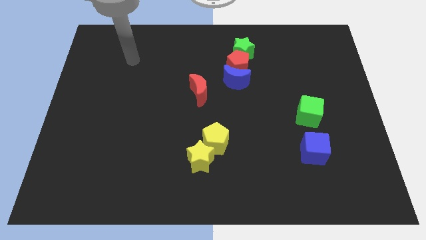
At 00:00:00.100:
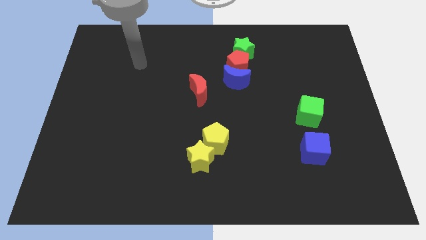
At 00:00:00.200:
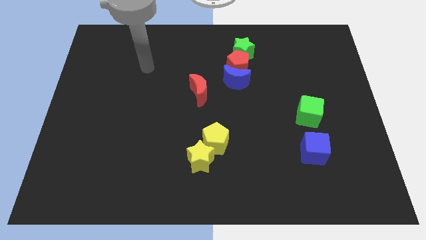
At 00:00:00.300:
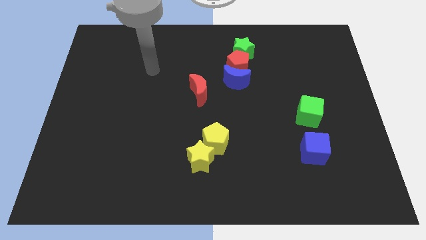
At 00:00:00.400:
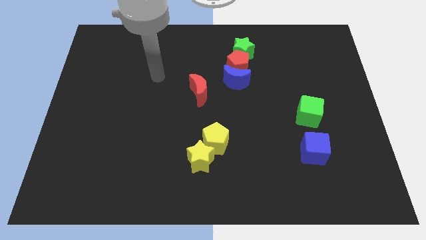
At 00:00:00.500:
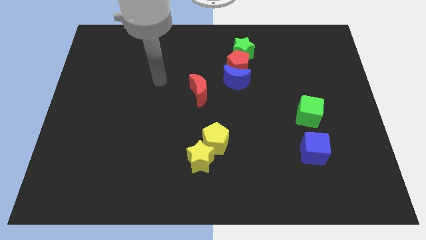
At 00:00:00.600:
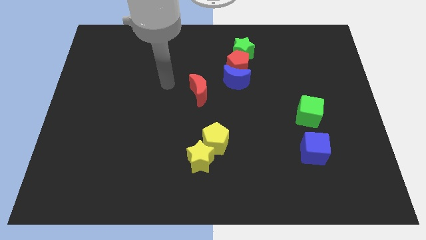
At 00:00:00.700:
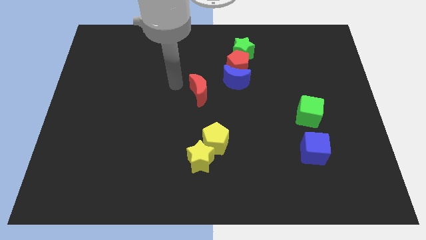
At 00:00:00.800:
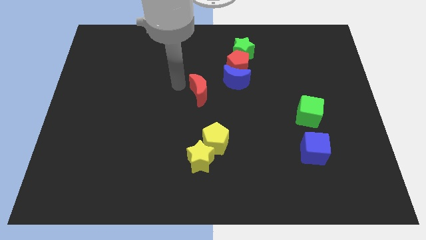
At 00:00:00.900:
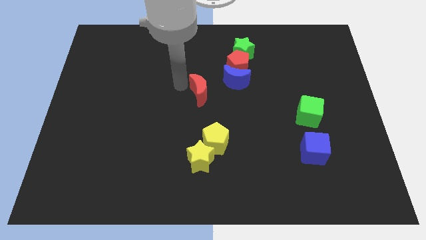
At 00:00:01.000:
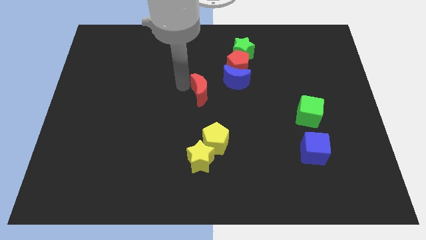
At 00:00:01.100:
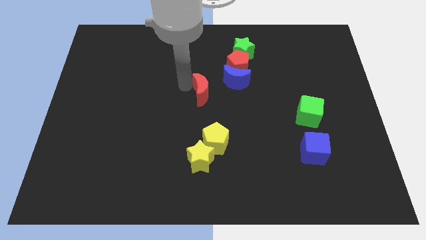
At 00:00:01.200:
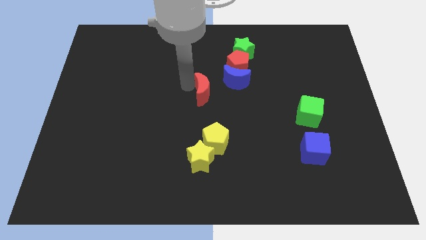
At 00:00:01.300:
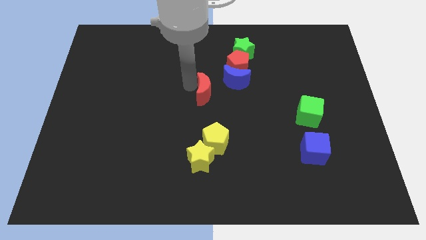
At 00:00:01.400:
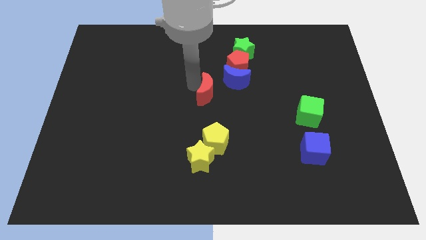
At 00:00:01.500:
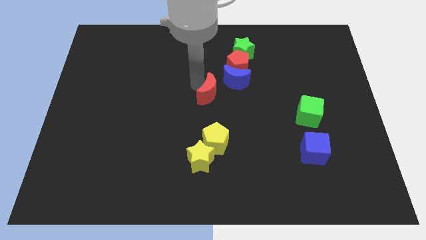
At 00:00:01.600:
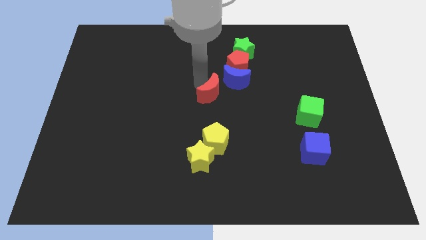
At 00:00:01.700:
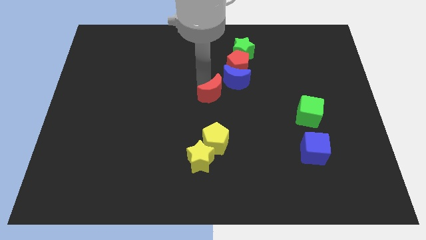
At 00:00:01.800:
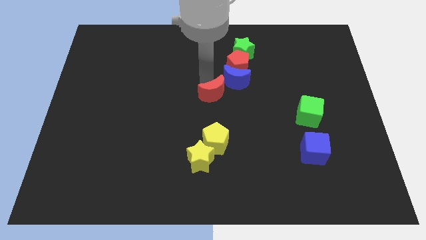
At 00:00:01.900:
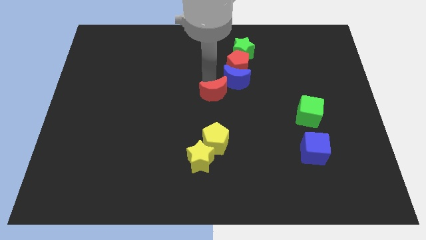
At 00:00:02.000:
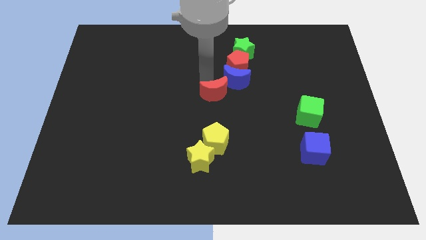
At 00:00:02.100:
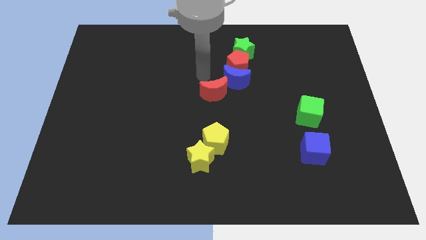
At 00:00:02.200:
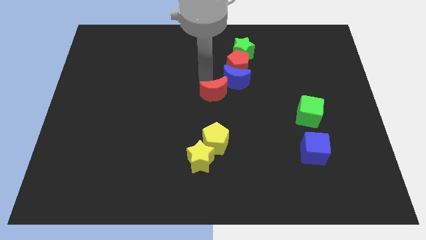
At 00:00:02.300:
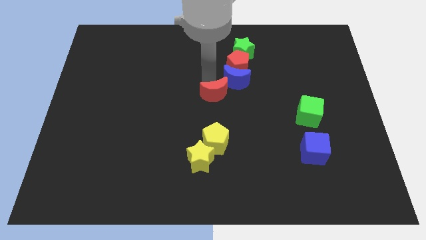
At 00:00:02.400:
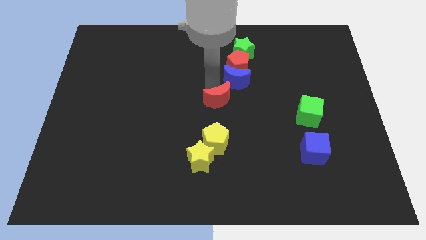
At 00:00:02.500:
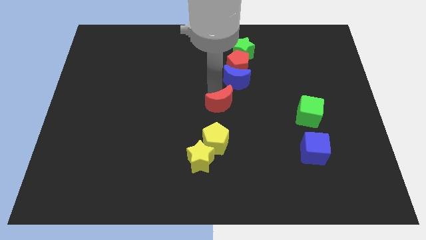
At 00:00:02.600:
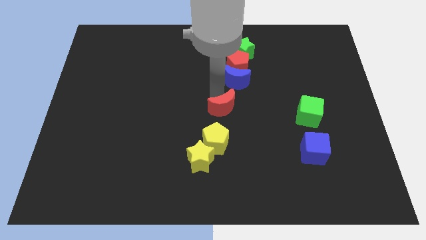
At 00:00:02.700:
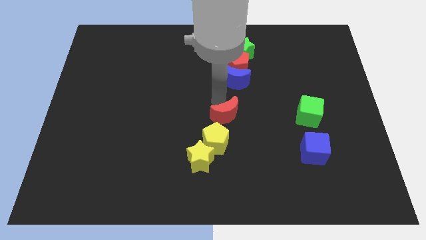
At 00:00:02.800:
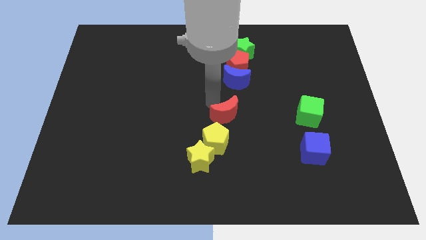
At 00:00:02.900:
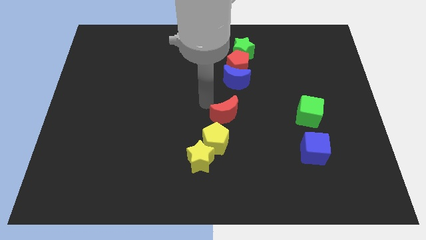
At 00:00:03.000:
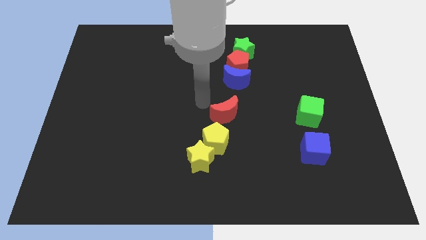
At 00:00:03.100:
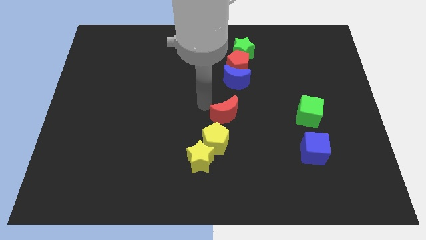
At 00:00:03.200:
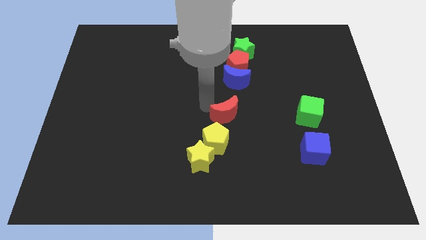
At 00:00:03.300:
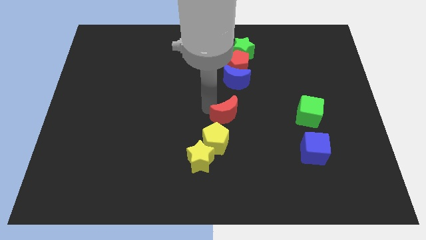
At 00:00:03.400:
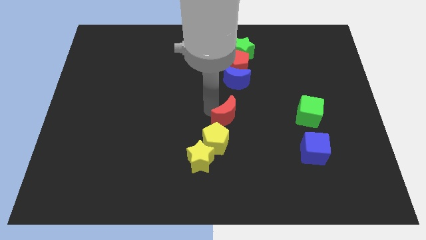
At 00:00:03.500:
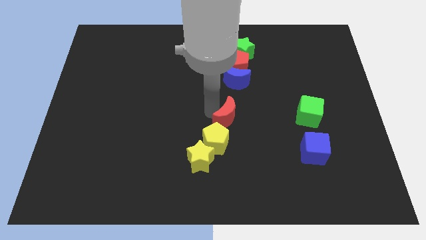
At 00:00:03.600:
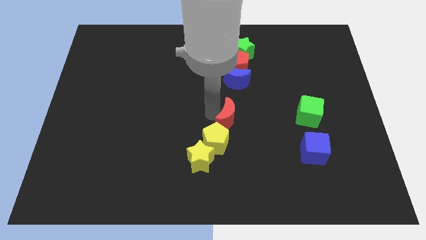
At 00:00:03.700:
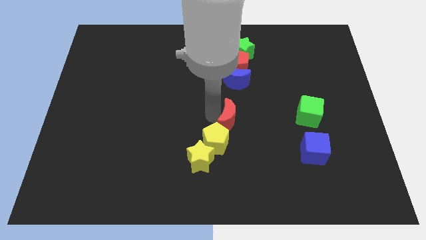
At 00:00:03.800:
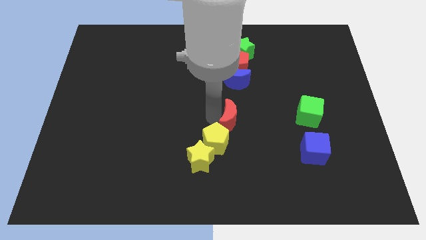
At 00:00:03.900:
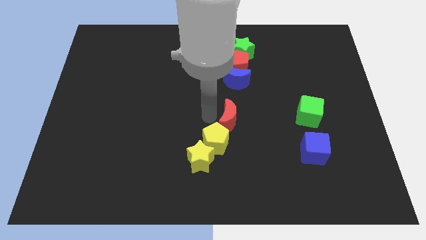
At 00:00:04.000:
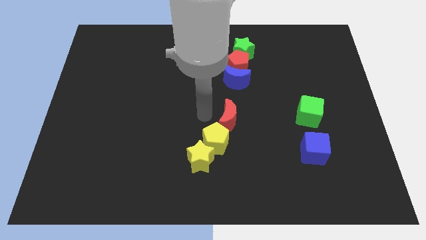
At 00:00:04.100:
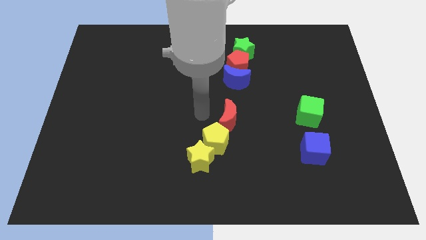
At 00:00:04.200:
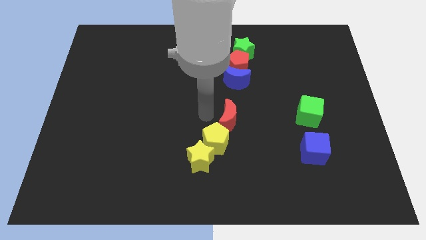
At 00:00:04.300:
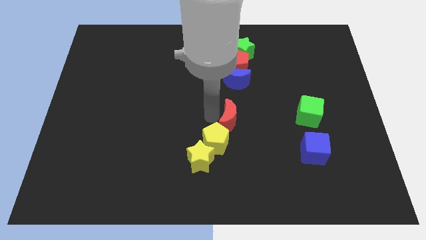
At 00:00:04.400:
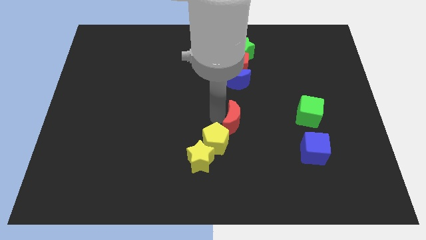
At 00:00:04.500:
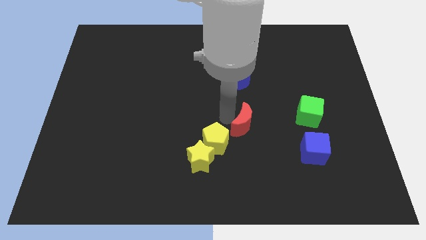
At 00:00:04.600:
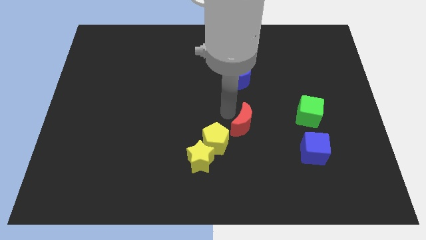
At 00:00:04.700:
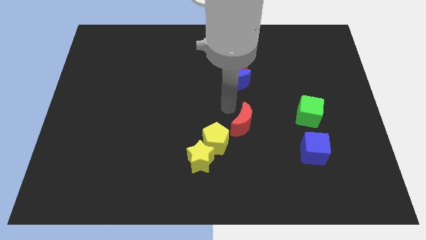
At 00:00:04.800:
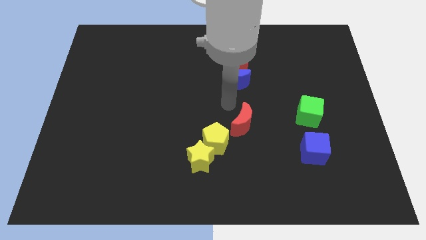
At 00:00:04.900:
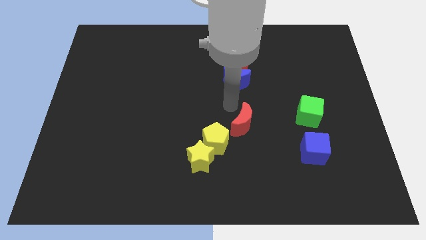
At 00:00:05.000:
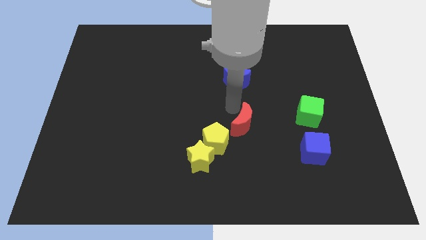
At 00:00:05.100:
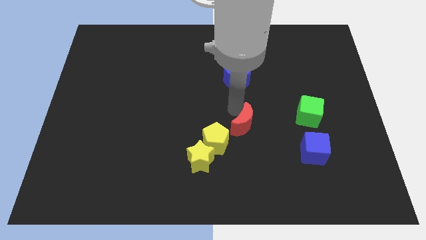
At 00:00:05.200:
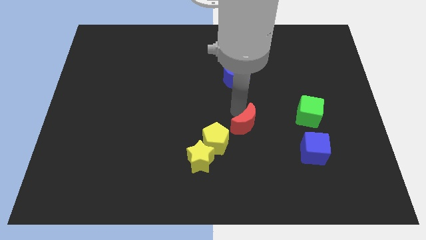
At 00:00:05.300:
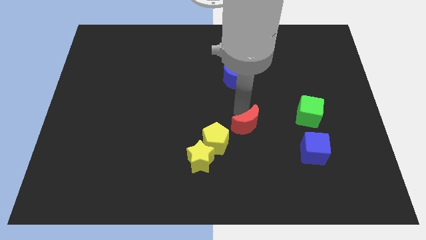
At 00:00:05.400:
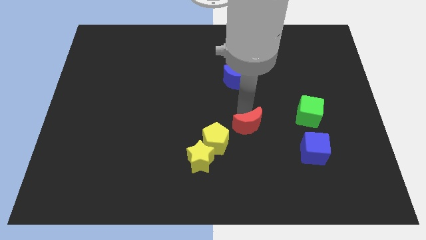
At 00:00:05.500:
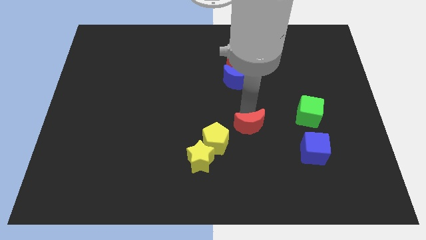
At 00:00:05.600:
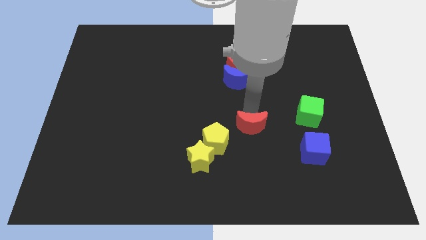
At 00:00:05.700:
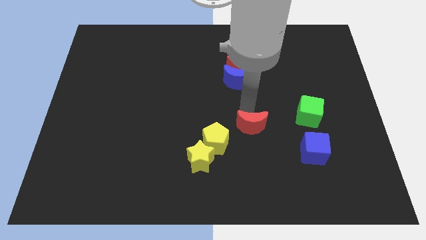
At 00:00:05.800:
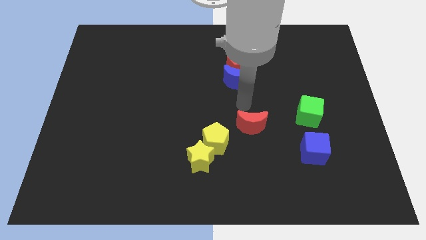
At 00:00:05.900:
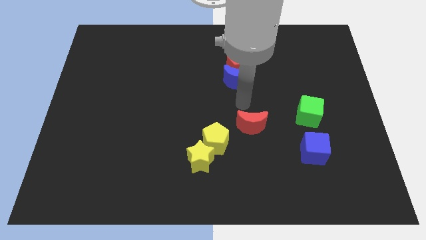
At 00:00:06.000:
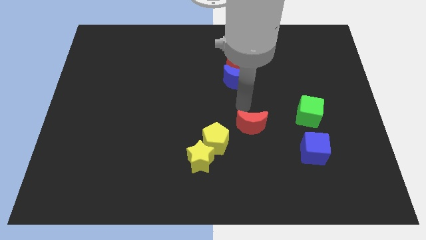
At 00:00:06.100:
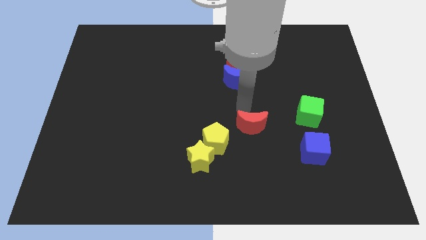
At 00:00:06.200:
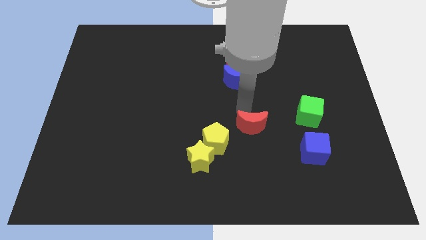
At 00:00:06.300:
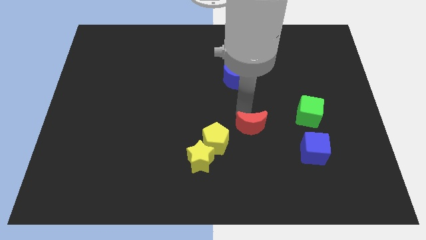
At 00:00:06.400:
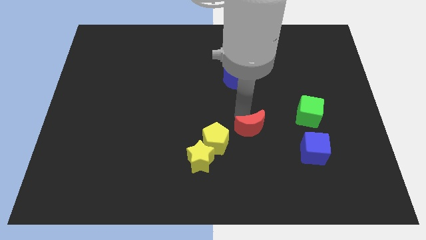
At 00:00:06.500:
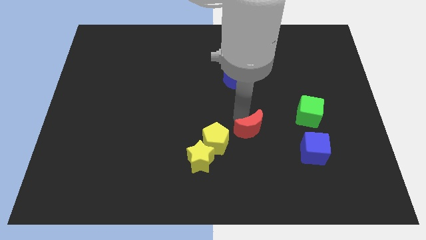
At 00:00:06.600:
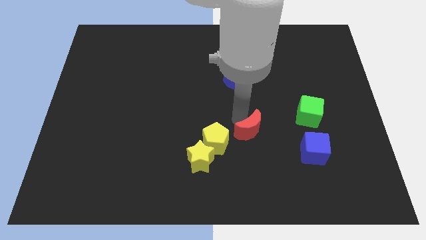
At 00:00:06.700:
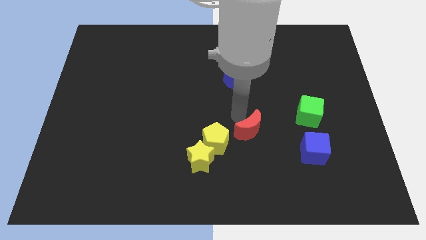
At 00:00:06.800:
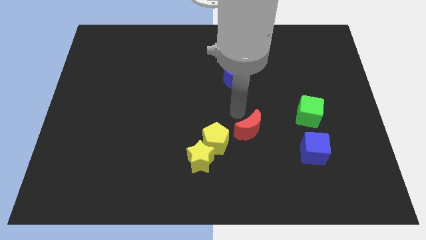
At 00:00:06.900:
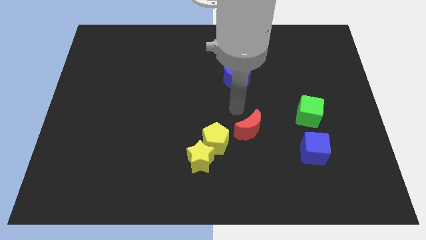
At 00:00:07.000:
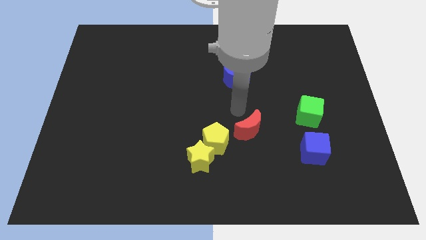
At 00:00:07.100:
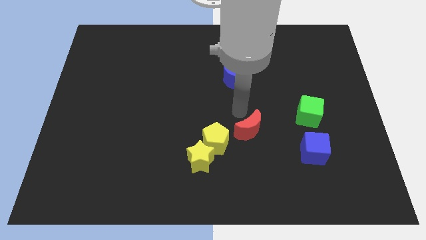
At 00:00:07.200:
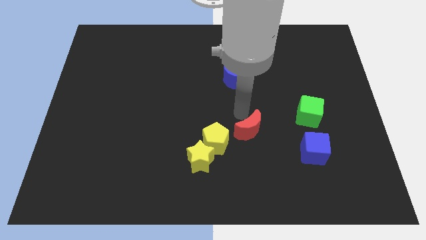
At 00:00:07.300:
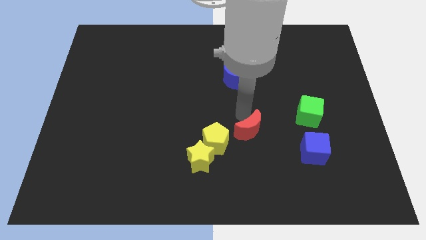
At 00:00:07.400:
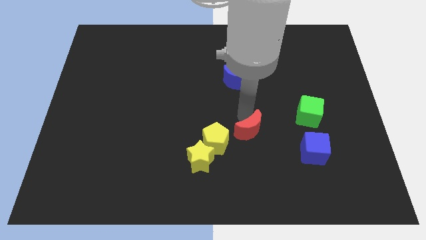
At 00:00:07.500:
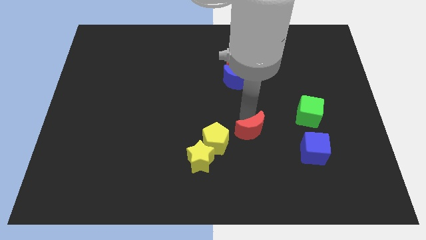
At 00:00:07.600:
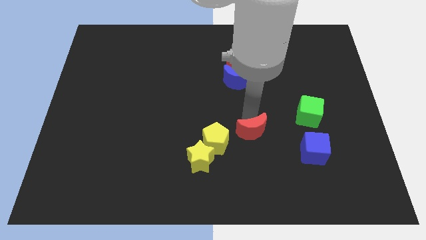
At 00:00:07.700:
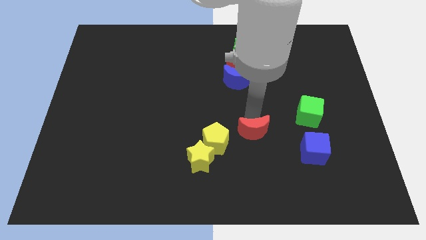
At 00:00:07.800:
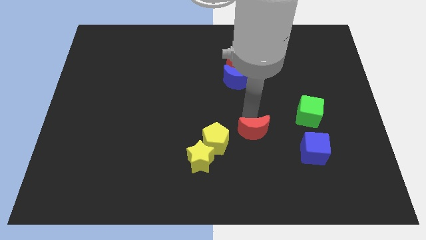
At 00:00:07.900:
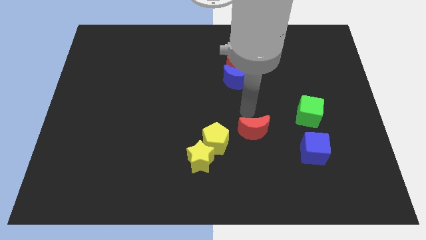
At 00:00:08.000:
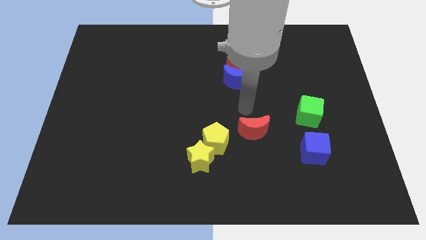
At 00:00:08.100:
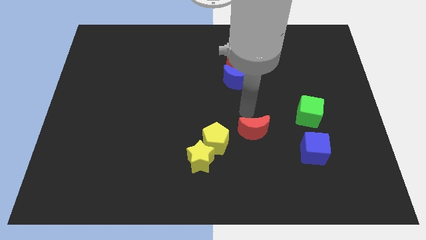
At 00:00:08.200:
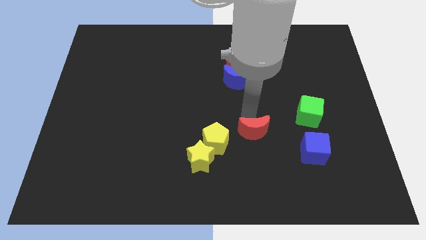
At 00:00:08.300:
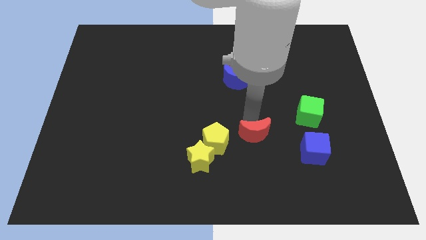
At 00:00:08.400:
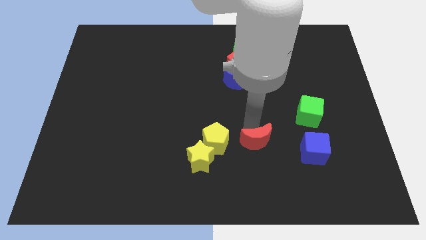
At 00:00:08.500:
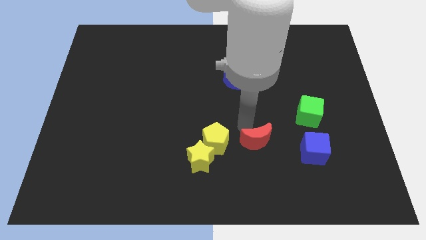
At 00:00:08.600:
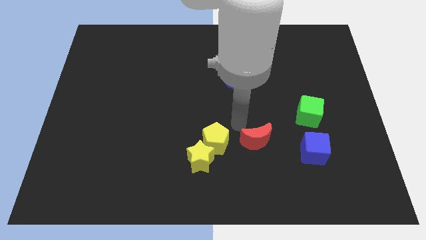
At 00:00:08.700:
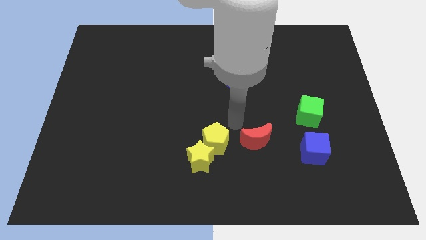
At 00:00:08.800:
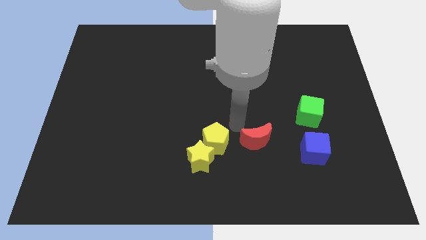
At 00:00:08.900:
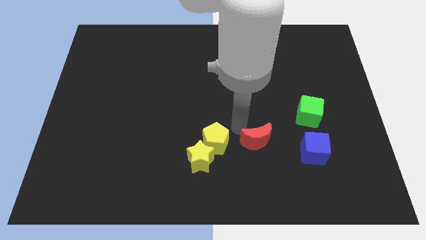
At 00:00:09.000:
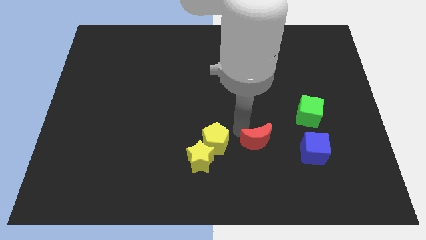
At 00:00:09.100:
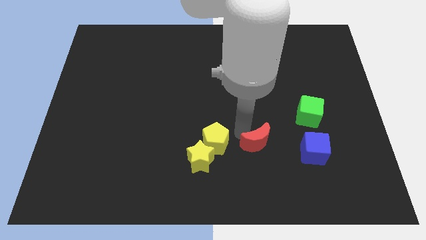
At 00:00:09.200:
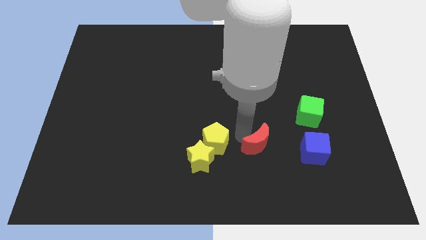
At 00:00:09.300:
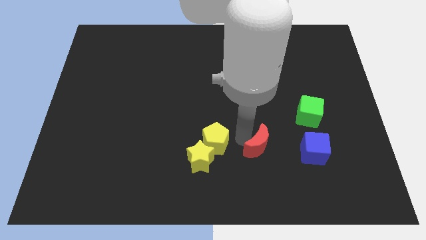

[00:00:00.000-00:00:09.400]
move the red moon downwards and right
